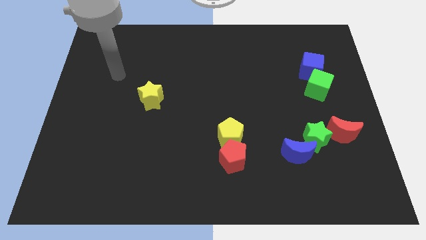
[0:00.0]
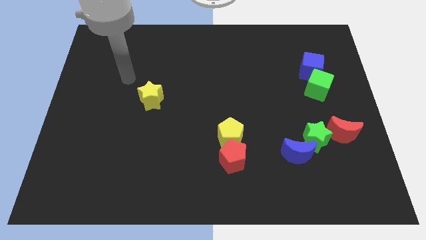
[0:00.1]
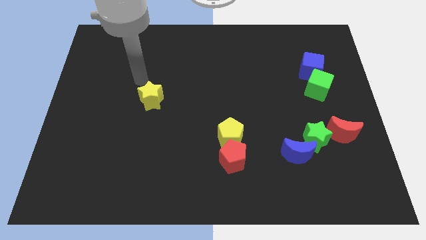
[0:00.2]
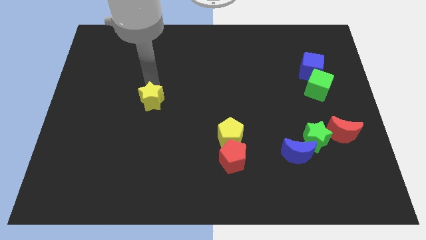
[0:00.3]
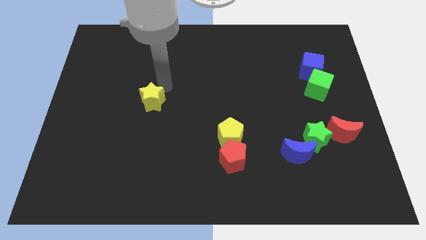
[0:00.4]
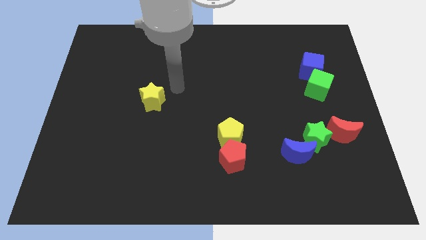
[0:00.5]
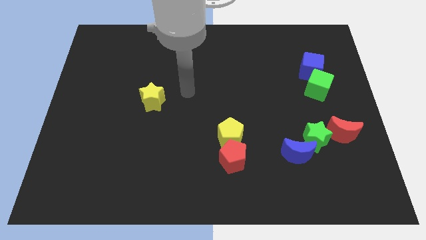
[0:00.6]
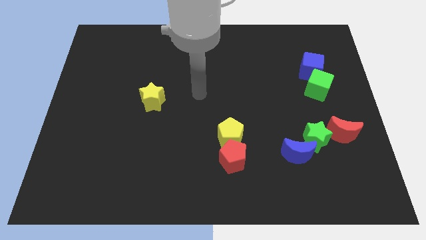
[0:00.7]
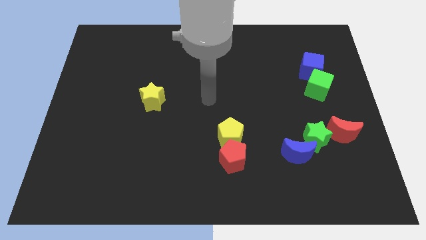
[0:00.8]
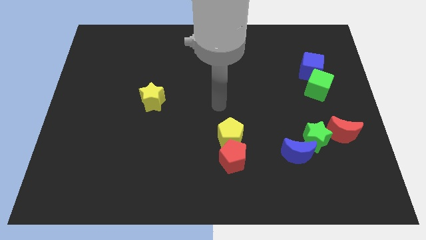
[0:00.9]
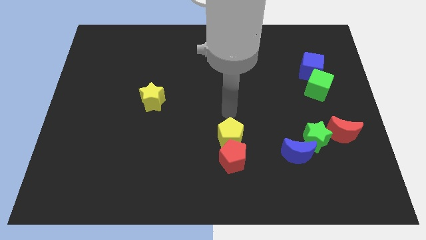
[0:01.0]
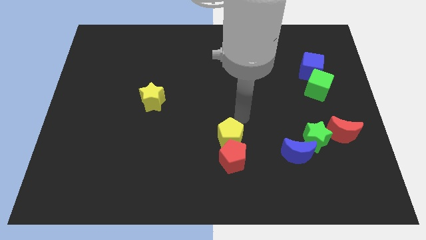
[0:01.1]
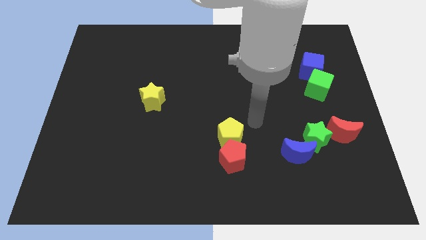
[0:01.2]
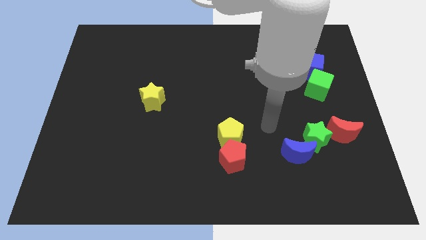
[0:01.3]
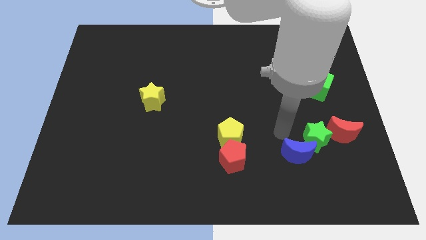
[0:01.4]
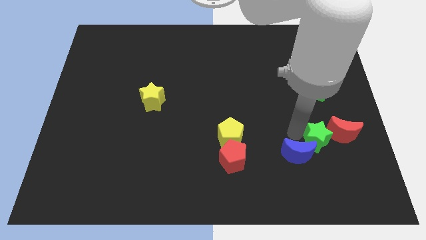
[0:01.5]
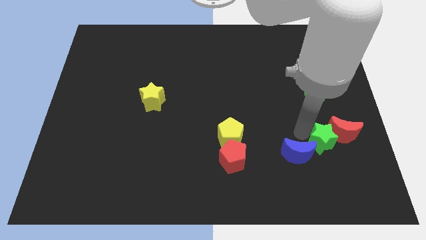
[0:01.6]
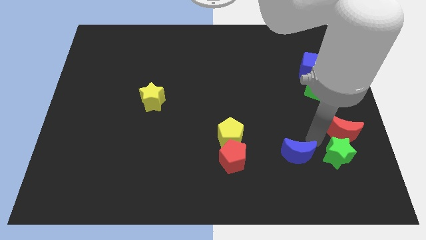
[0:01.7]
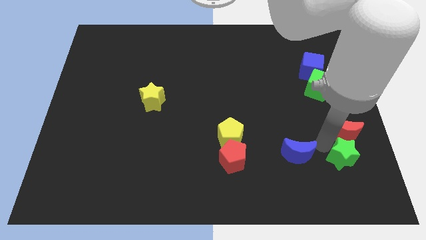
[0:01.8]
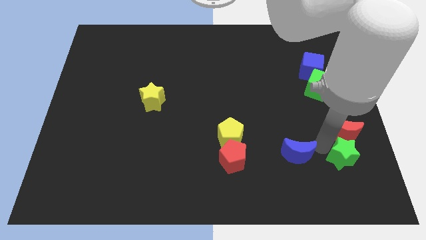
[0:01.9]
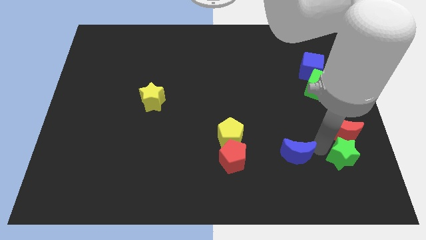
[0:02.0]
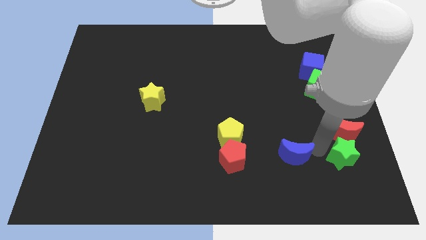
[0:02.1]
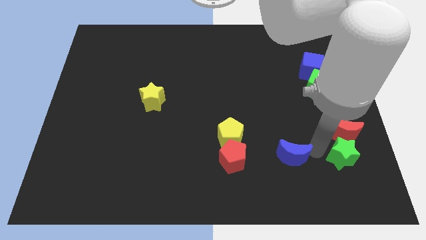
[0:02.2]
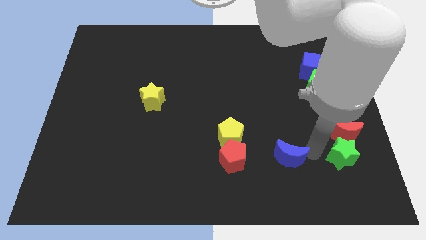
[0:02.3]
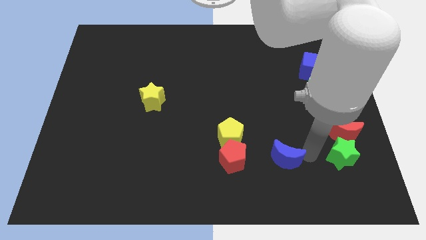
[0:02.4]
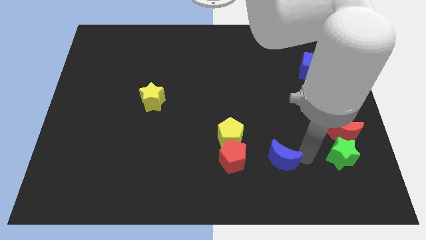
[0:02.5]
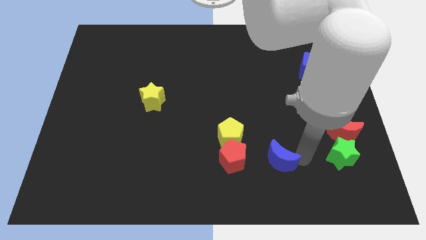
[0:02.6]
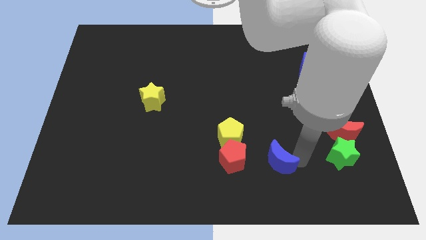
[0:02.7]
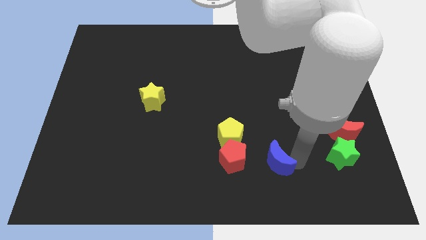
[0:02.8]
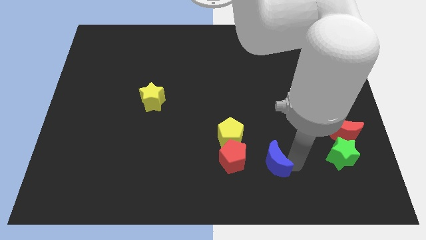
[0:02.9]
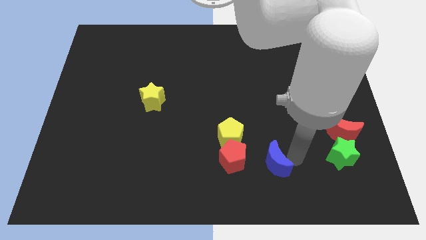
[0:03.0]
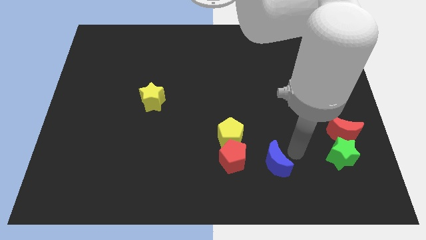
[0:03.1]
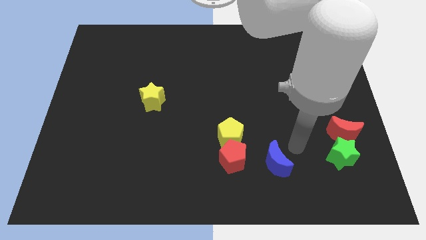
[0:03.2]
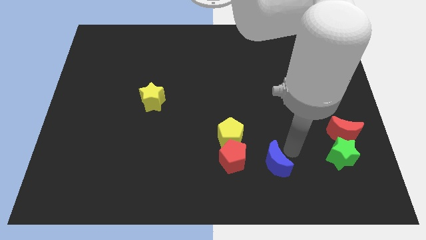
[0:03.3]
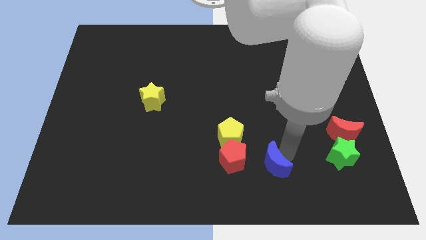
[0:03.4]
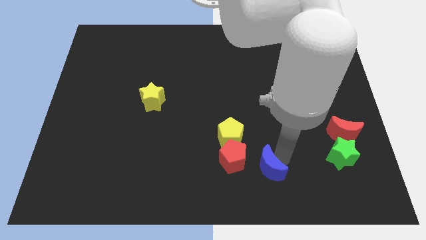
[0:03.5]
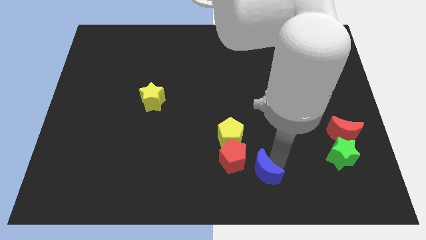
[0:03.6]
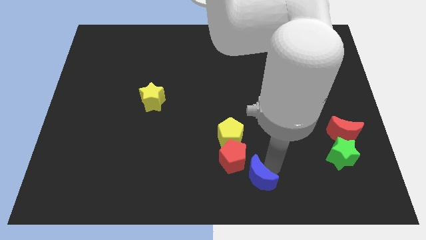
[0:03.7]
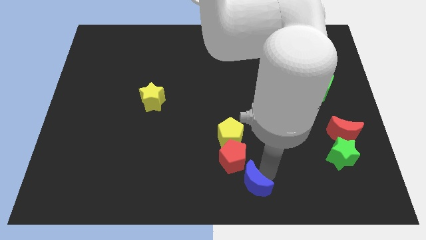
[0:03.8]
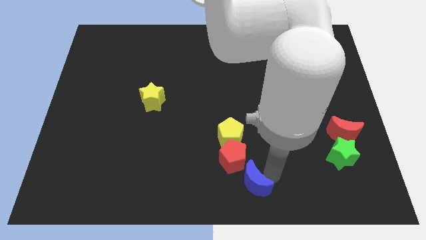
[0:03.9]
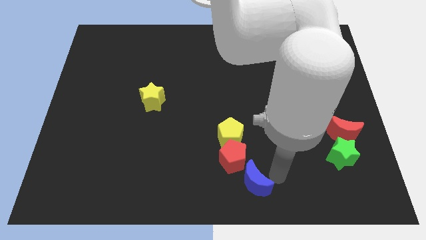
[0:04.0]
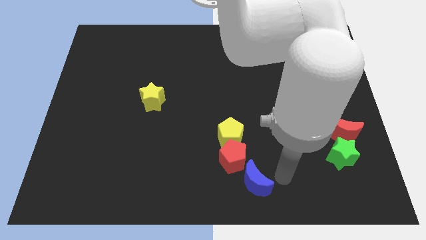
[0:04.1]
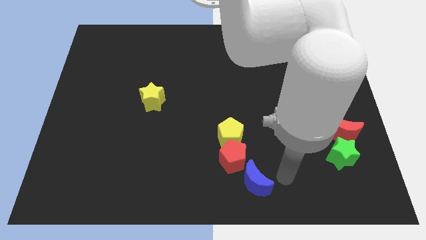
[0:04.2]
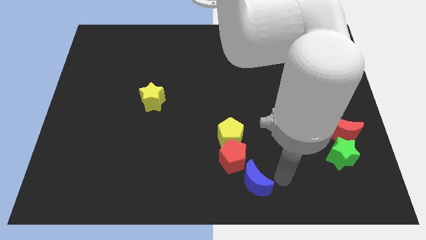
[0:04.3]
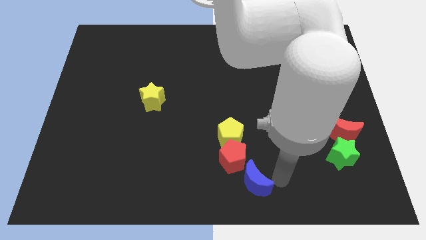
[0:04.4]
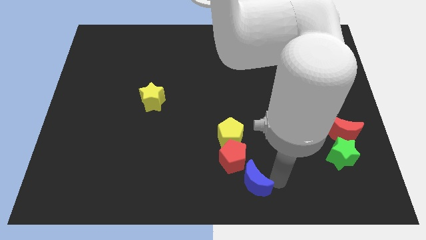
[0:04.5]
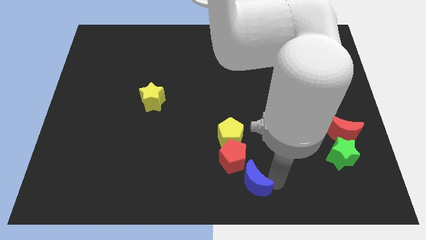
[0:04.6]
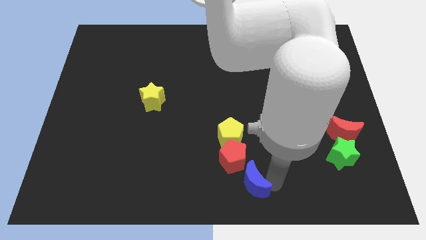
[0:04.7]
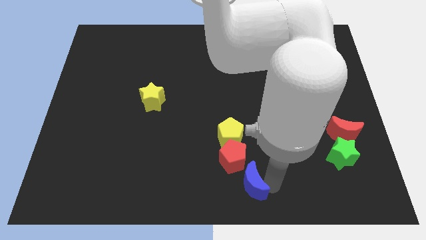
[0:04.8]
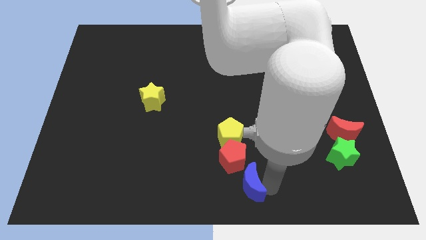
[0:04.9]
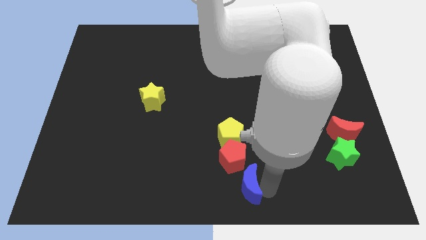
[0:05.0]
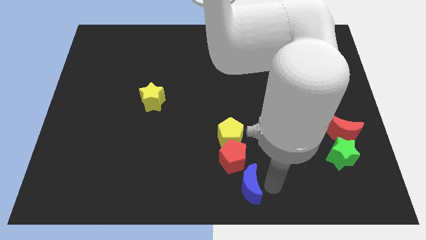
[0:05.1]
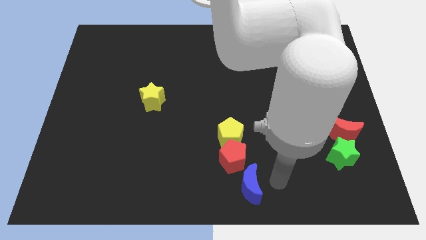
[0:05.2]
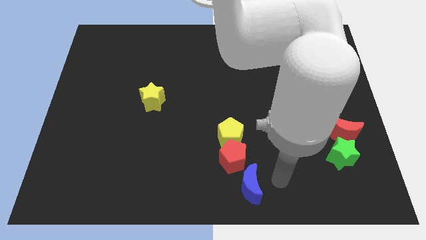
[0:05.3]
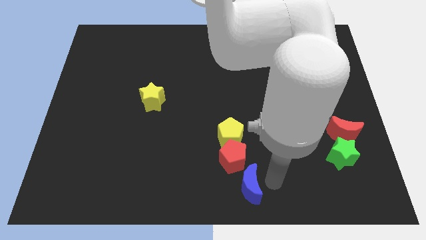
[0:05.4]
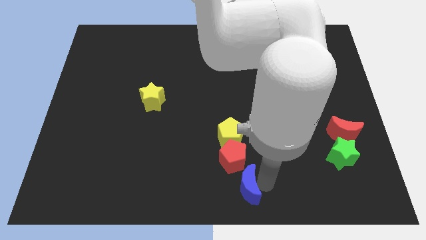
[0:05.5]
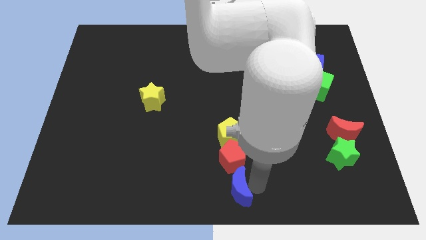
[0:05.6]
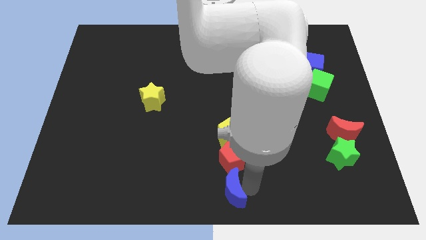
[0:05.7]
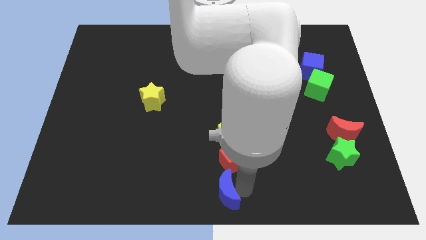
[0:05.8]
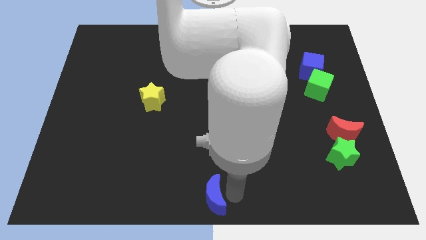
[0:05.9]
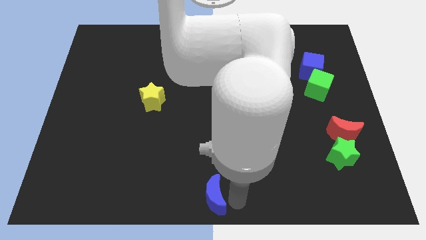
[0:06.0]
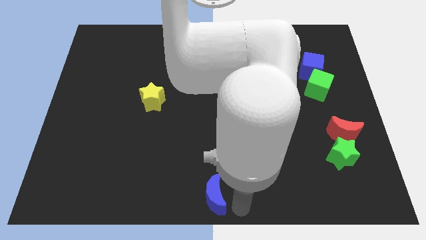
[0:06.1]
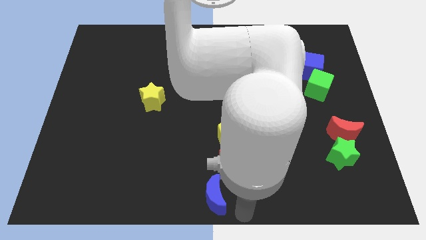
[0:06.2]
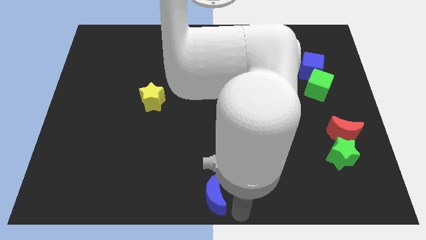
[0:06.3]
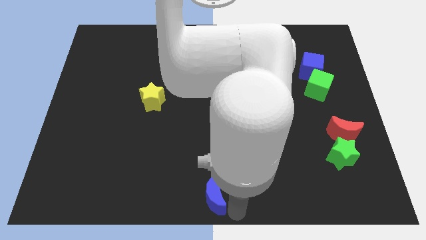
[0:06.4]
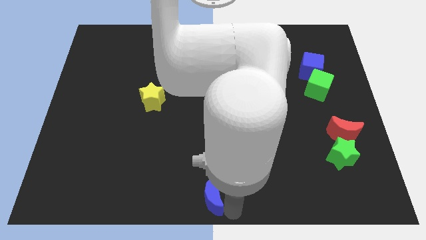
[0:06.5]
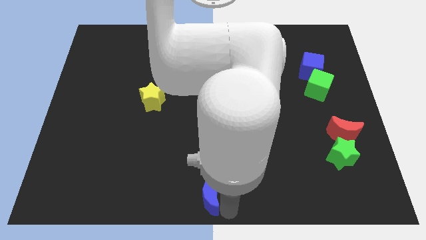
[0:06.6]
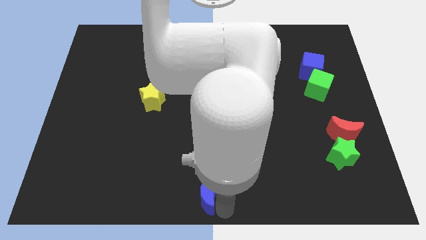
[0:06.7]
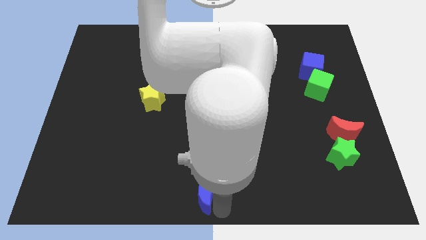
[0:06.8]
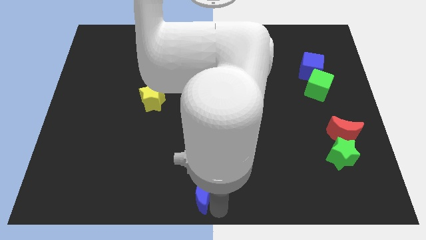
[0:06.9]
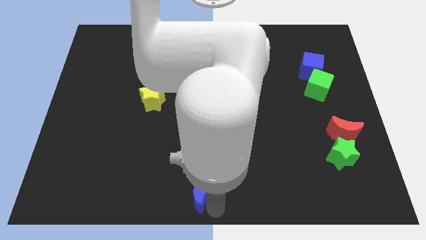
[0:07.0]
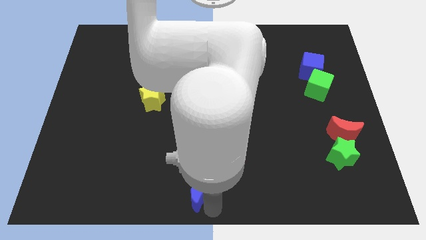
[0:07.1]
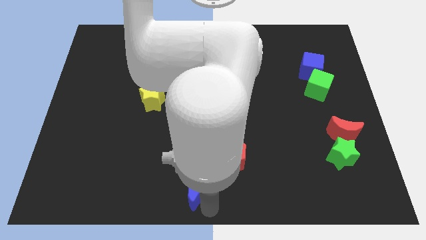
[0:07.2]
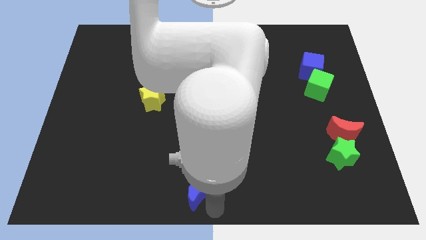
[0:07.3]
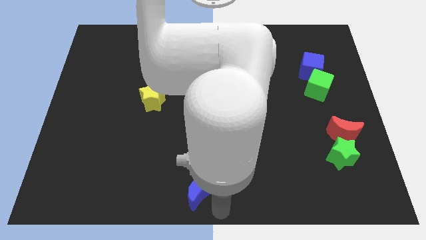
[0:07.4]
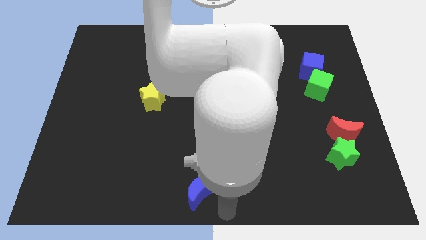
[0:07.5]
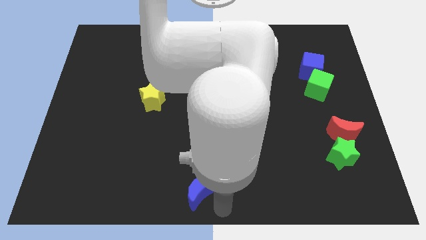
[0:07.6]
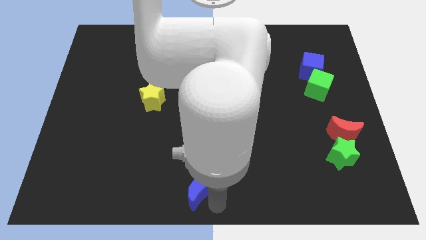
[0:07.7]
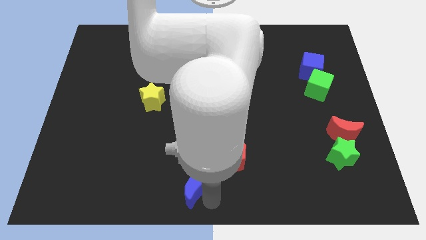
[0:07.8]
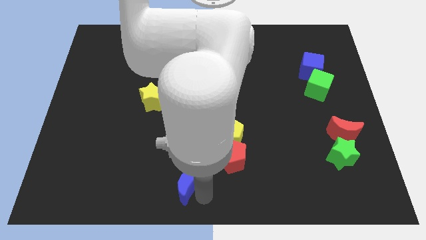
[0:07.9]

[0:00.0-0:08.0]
push the blue moon left
